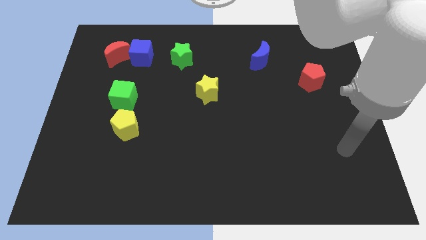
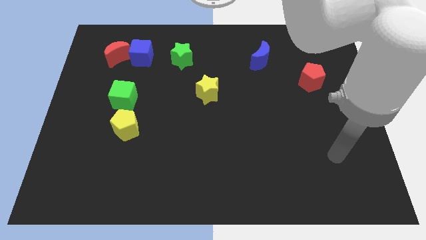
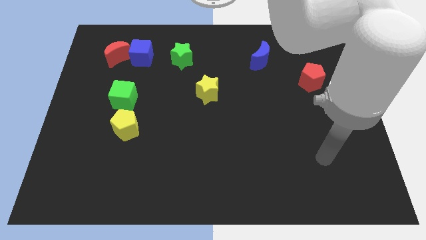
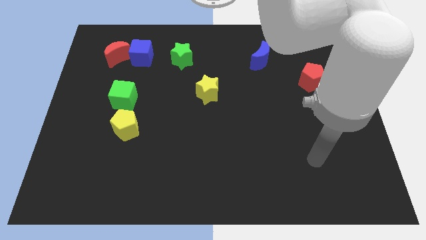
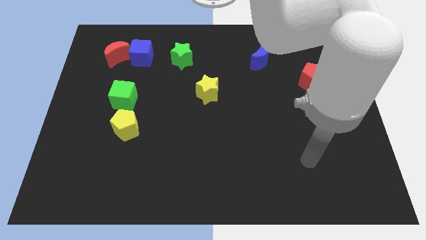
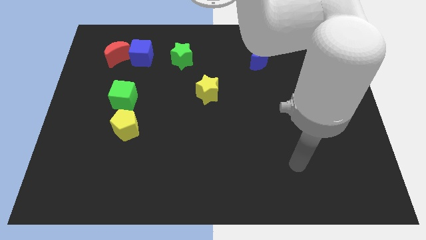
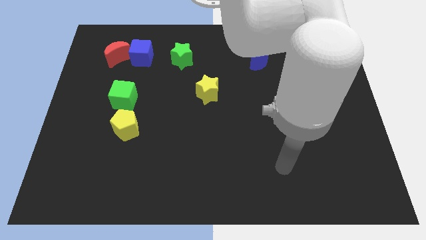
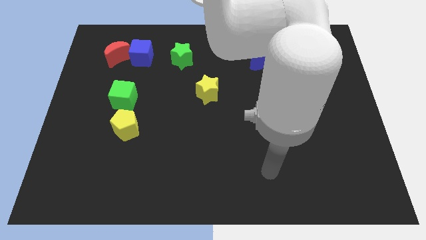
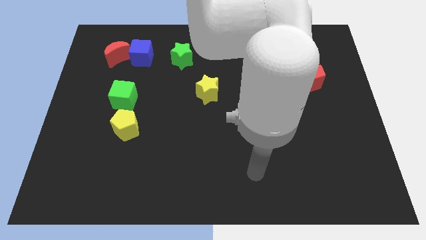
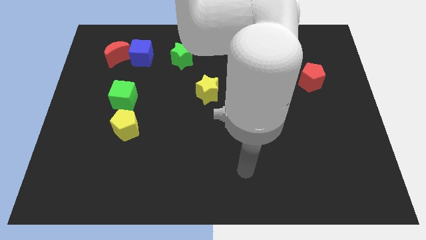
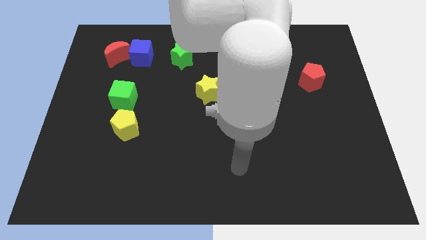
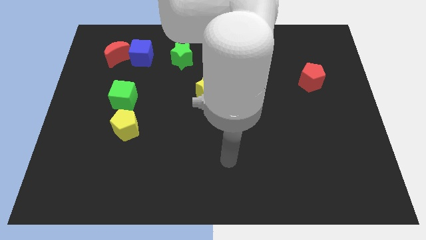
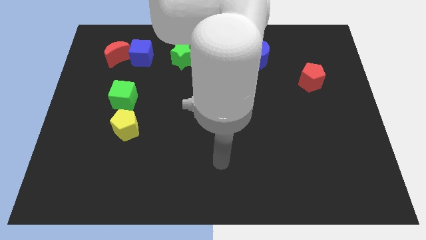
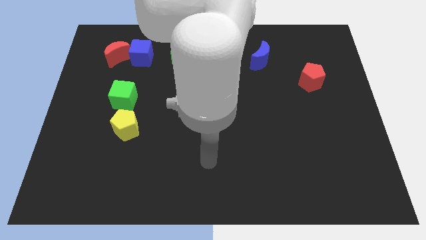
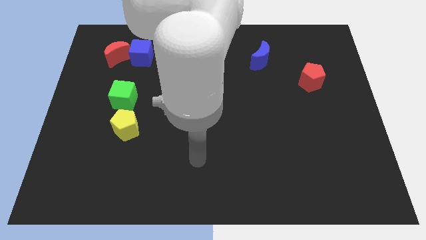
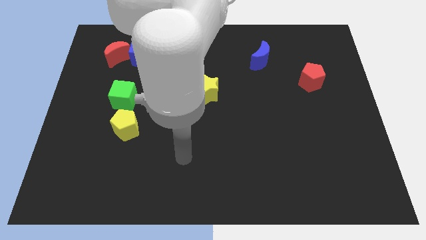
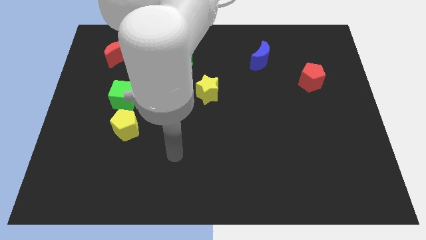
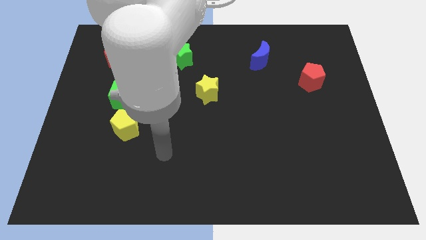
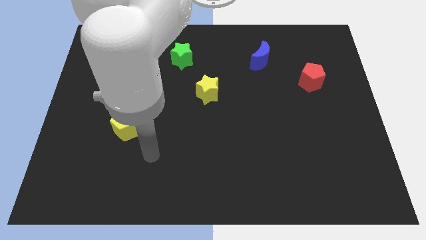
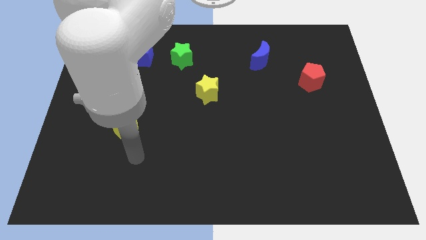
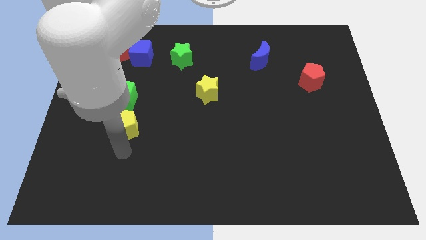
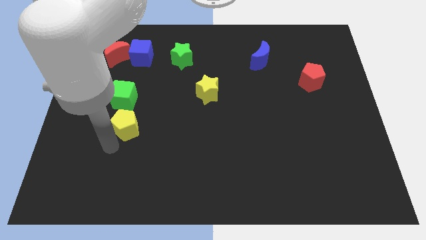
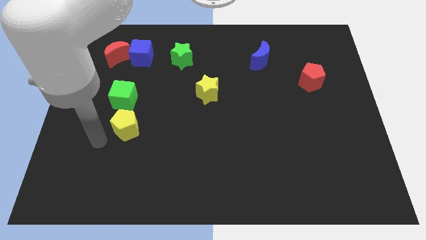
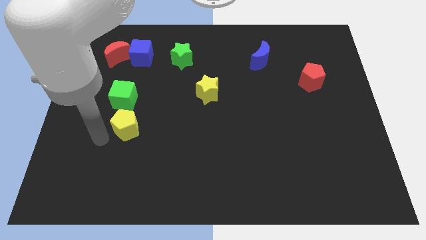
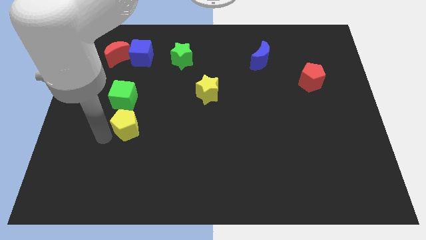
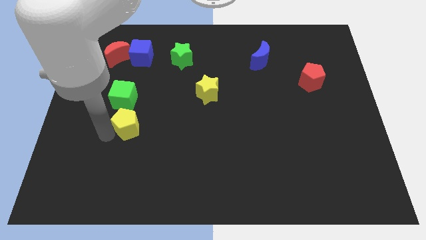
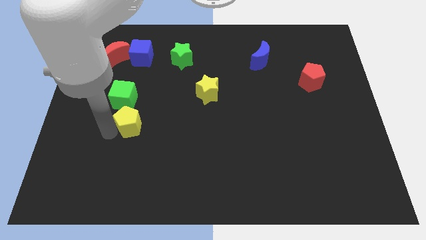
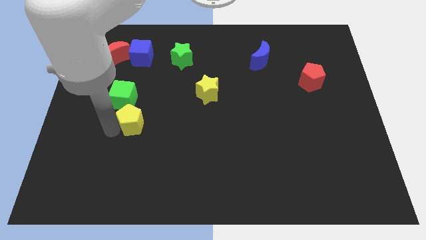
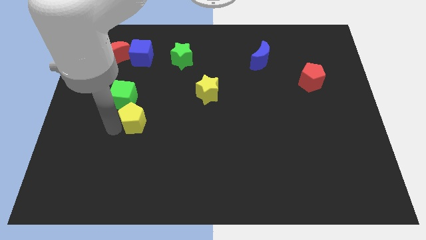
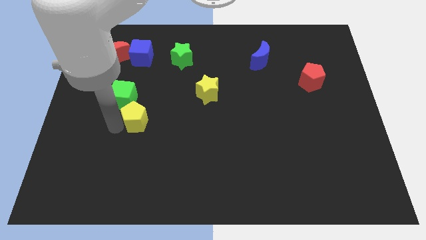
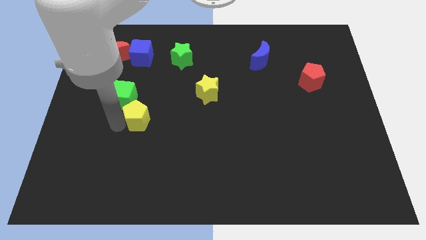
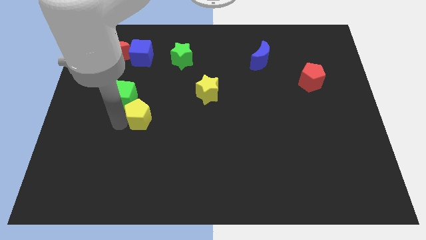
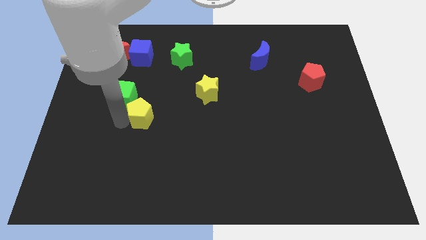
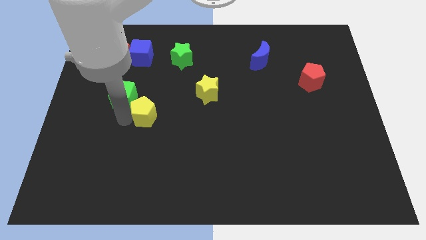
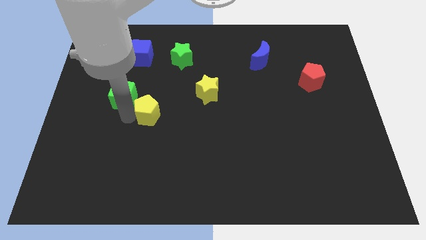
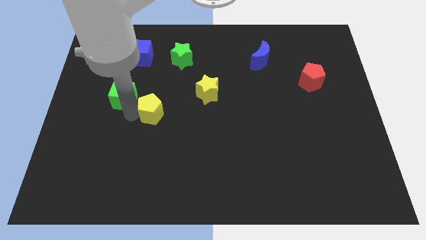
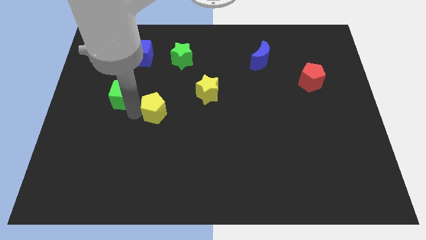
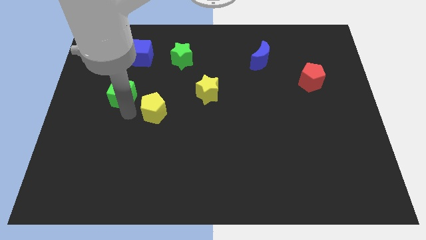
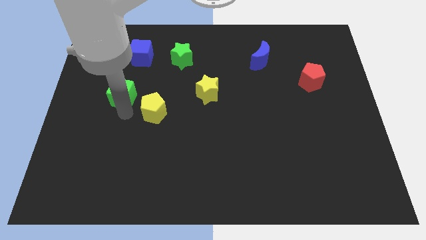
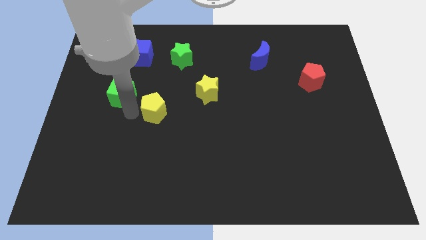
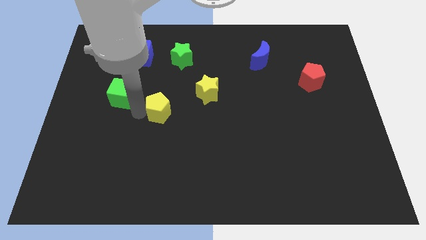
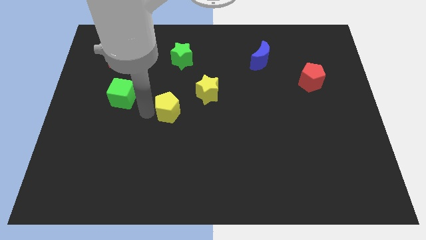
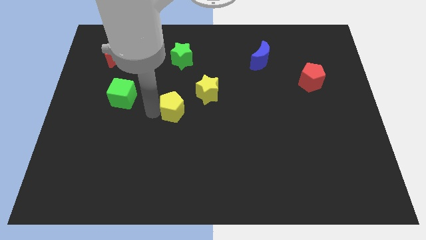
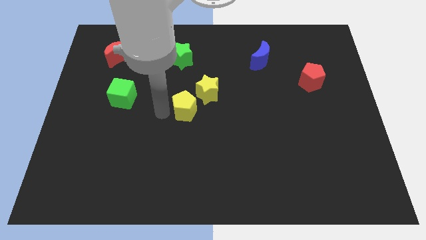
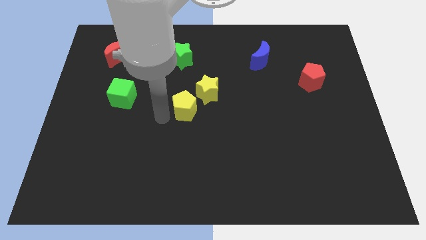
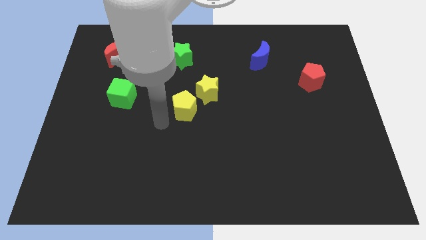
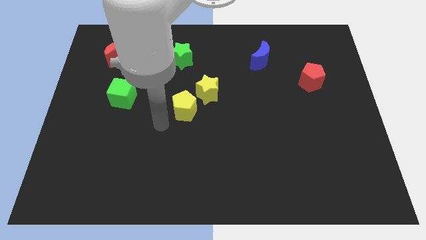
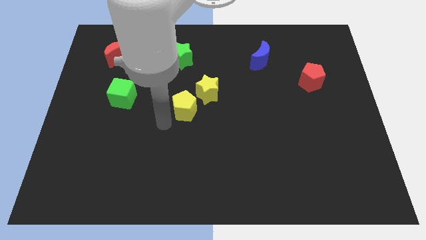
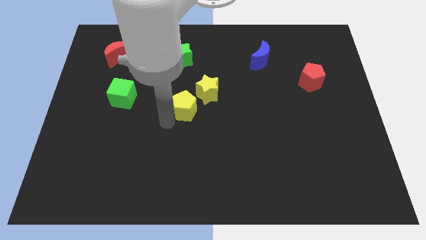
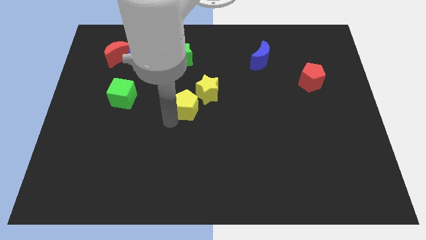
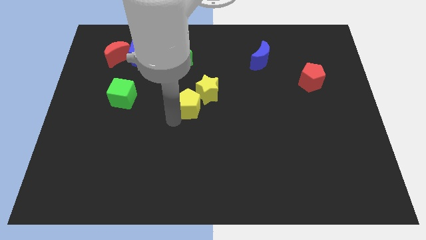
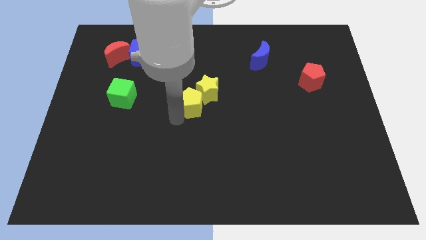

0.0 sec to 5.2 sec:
move the yellow pentagon next to the yellow star

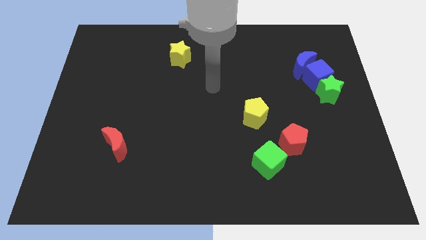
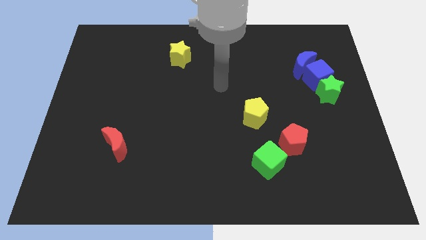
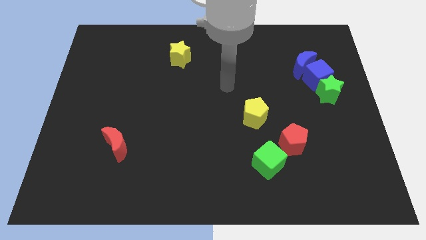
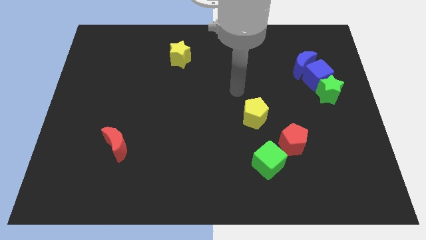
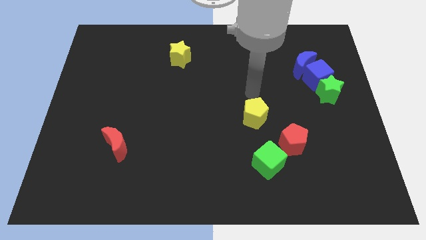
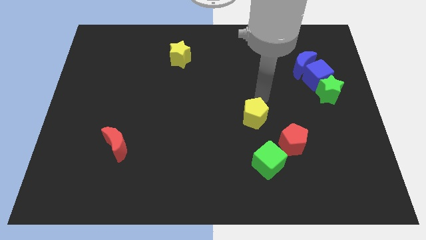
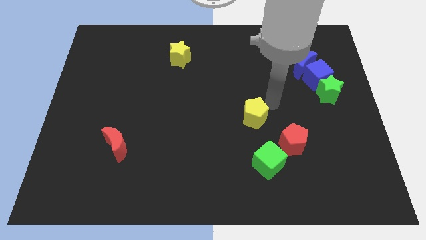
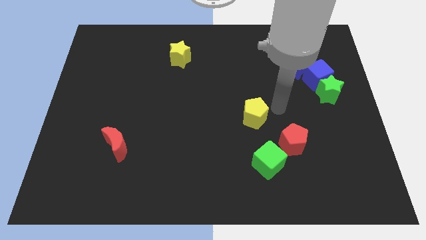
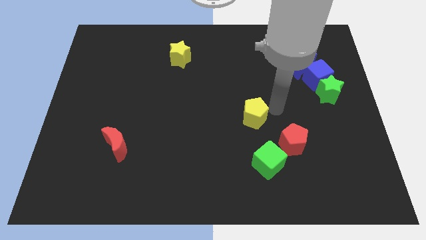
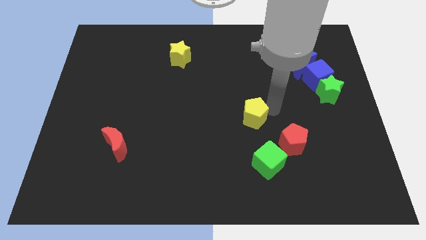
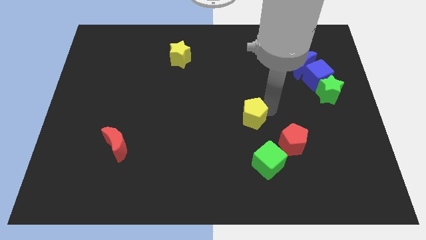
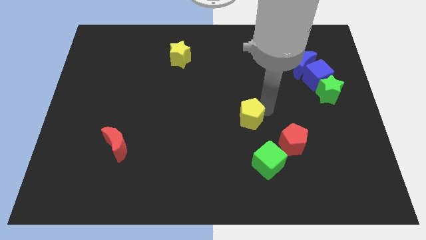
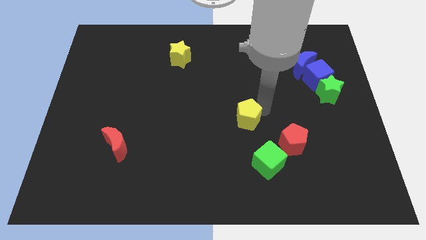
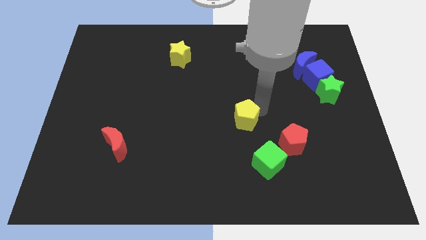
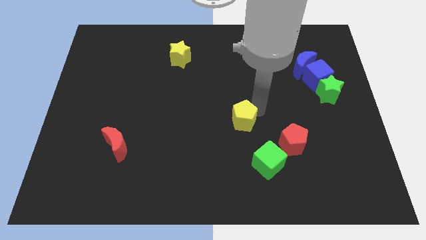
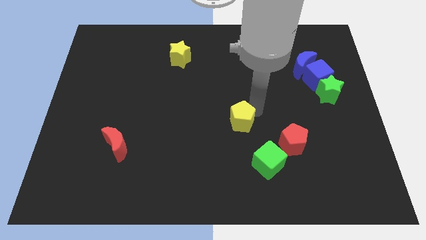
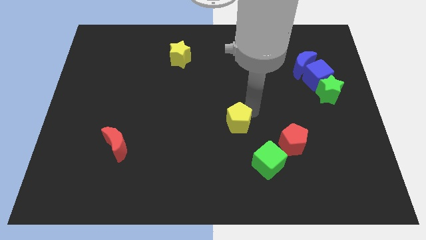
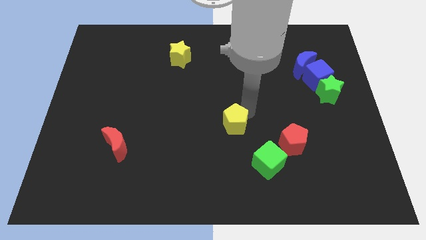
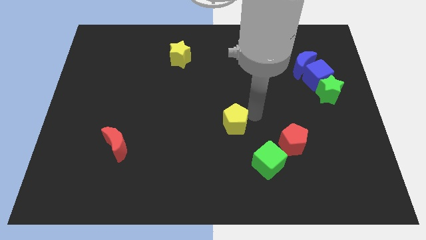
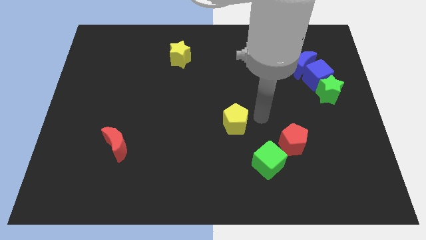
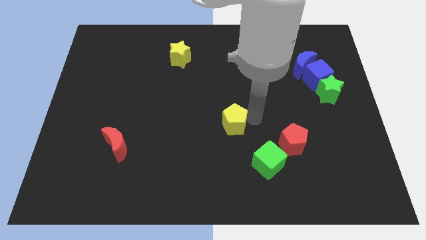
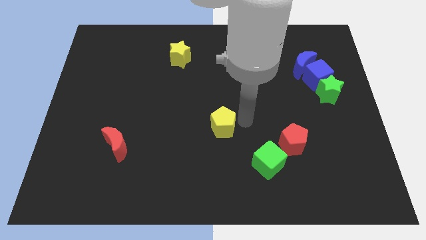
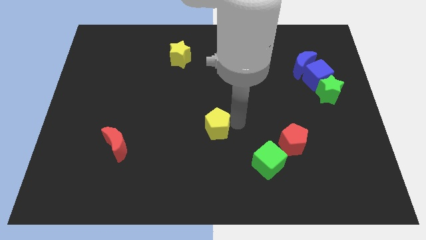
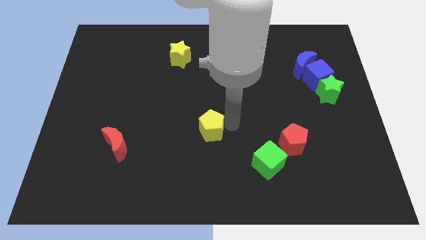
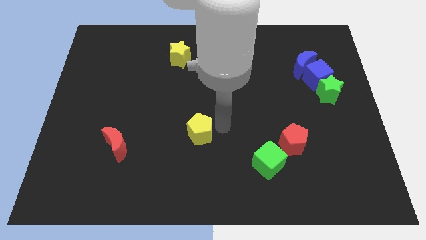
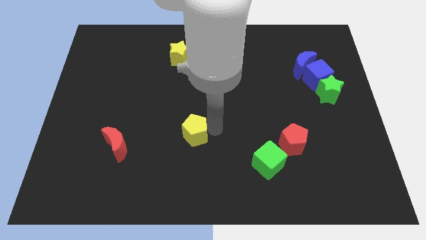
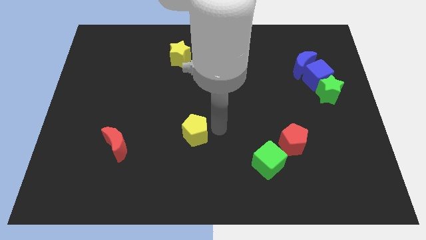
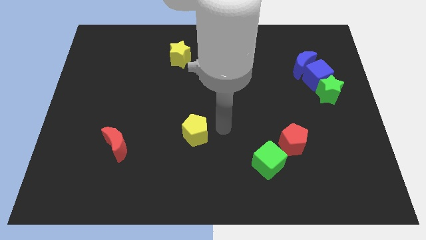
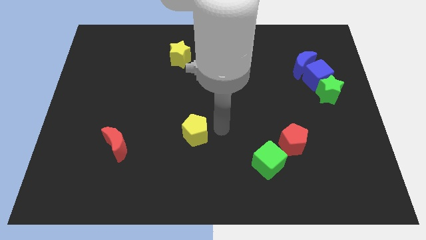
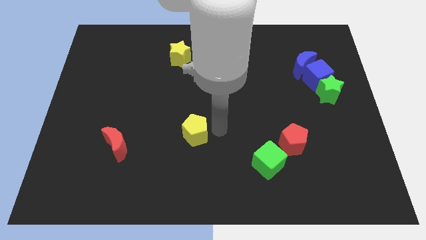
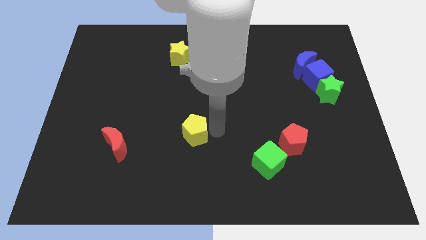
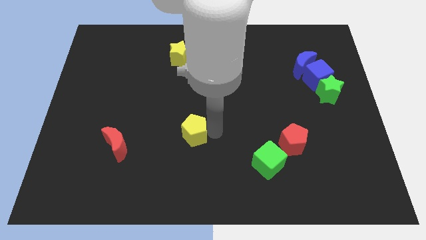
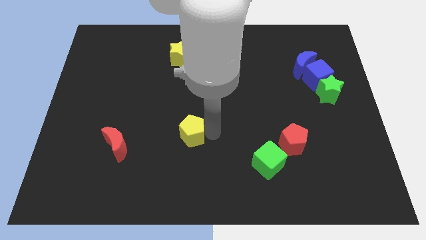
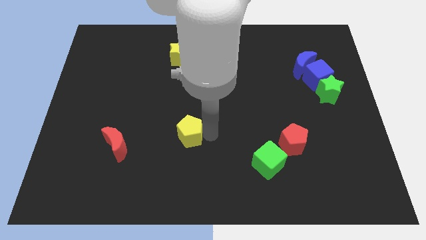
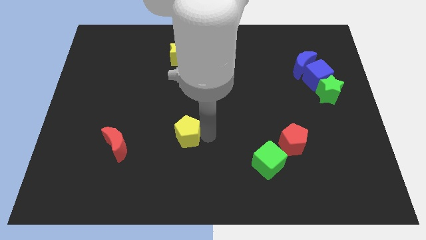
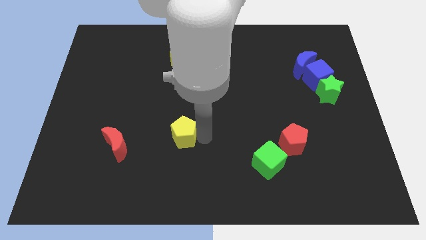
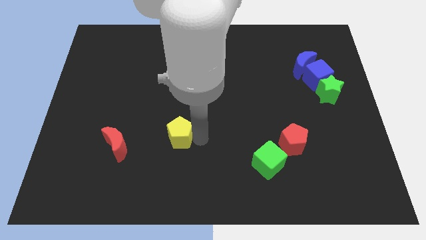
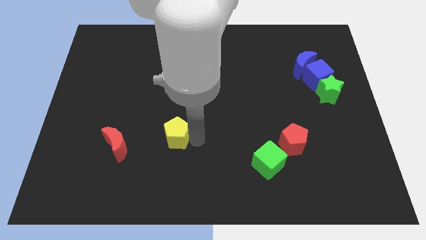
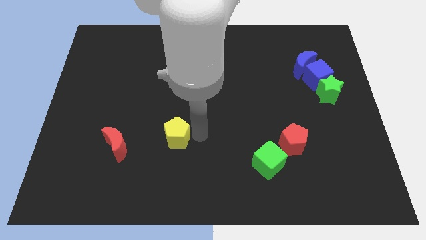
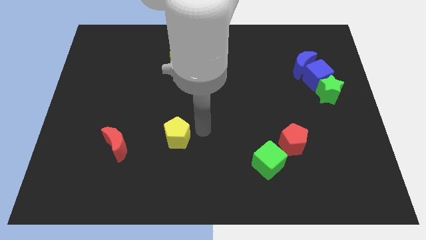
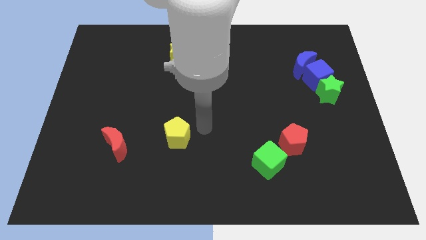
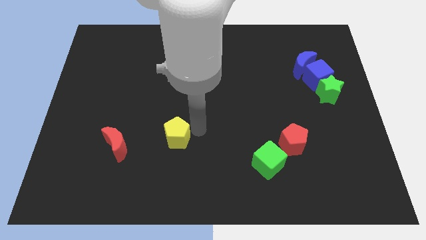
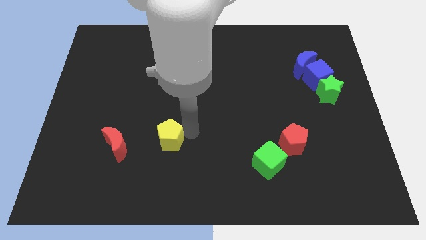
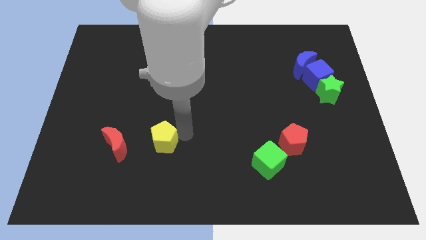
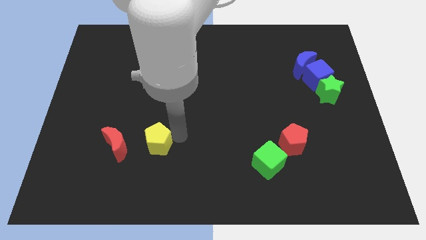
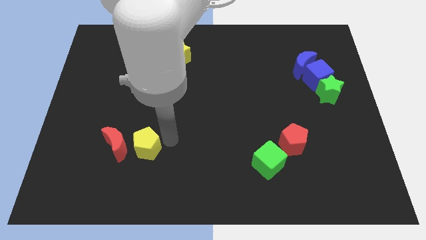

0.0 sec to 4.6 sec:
move the yellow pentagon next to the red moon
